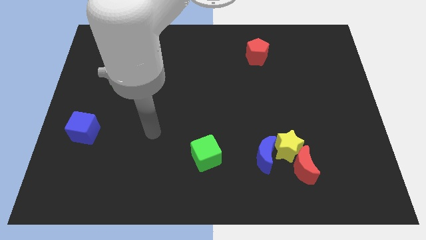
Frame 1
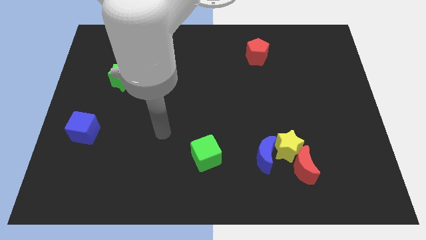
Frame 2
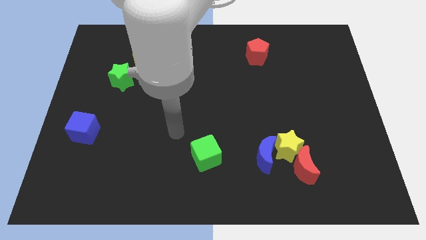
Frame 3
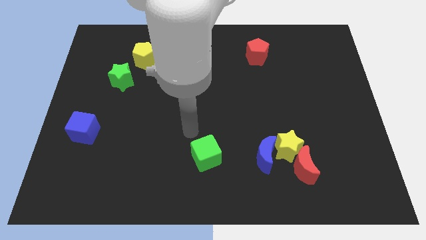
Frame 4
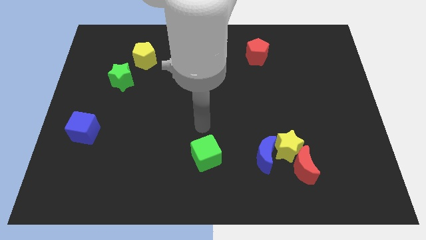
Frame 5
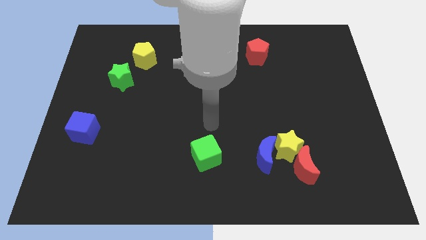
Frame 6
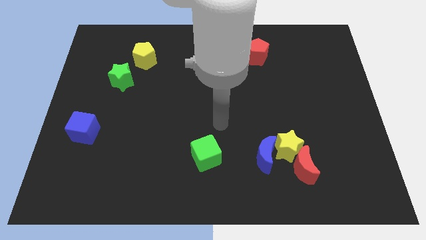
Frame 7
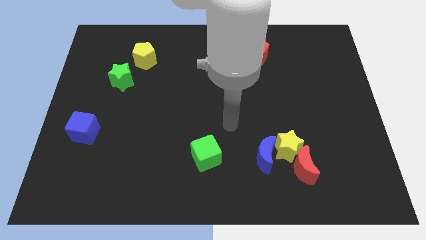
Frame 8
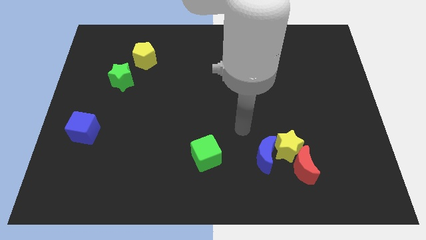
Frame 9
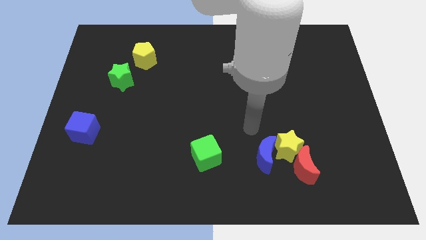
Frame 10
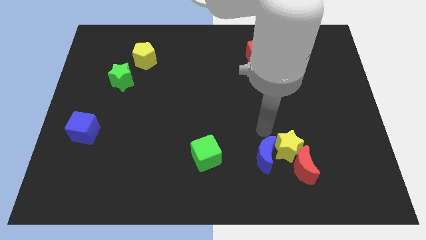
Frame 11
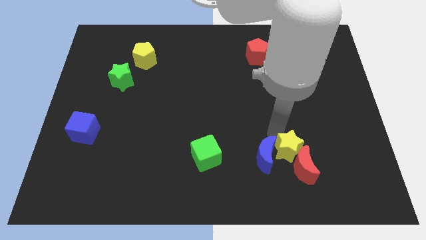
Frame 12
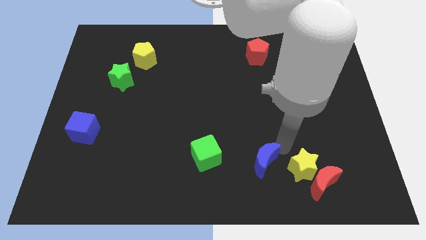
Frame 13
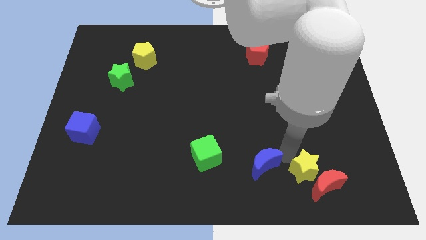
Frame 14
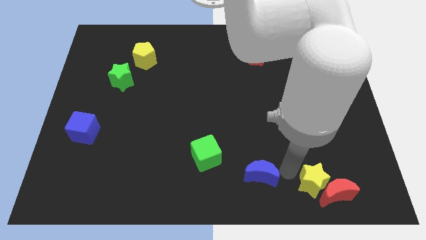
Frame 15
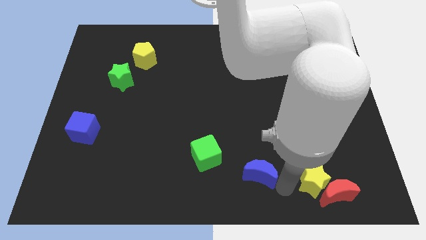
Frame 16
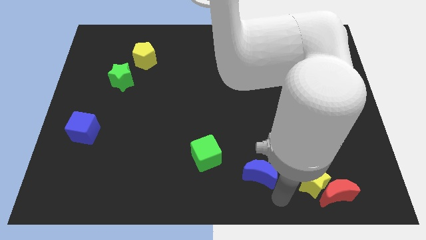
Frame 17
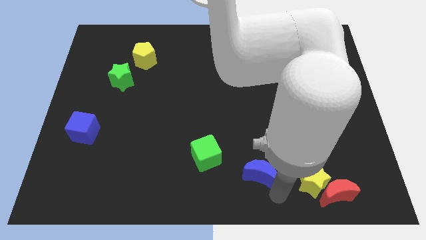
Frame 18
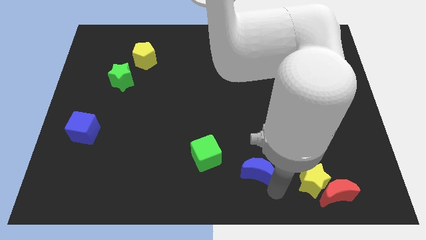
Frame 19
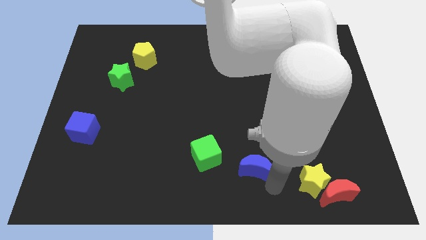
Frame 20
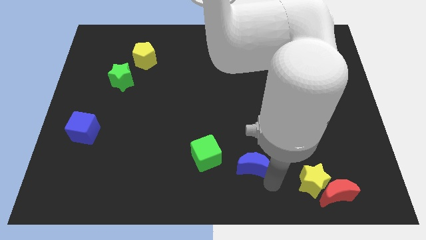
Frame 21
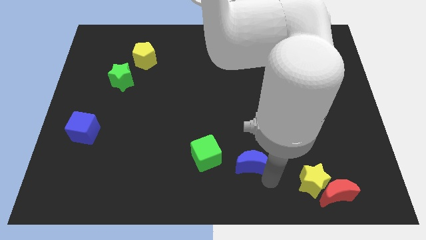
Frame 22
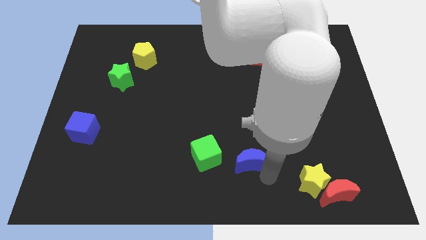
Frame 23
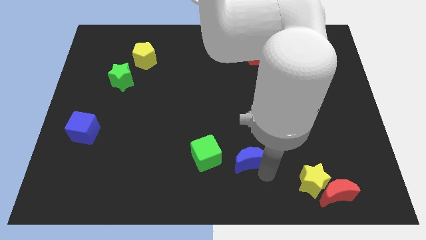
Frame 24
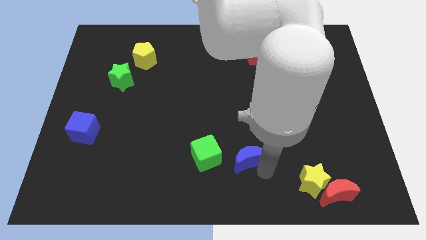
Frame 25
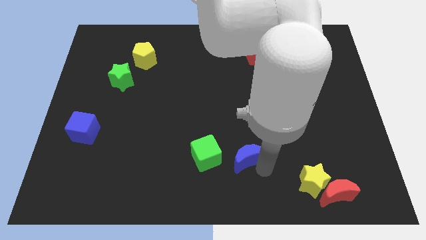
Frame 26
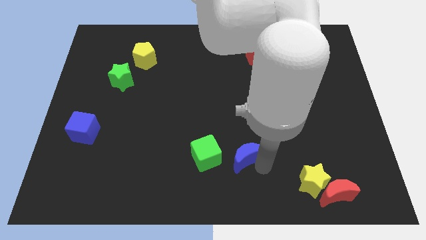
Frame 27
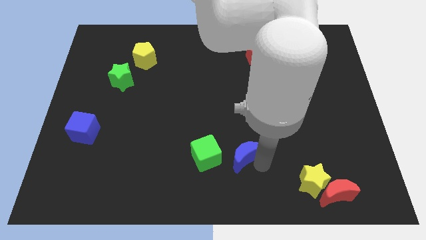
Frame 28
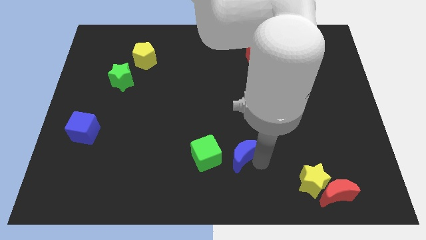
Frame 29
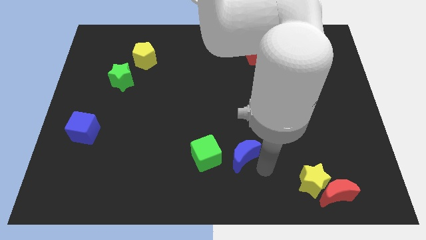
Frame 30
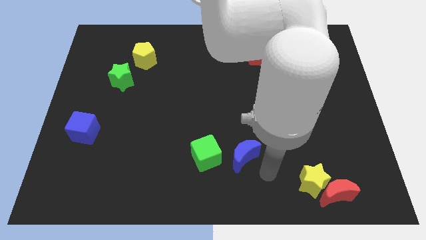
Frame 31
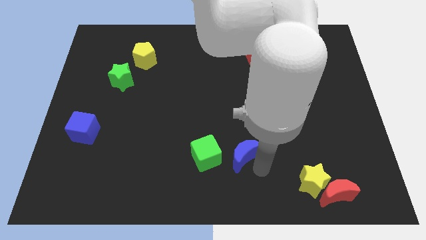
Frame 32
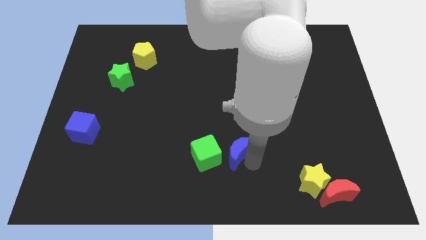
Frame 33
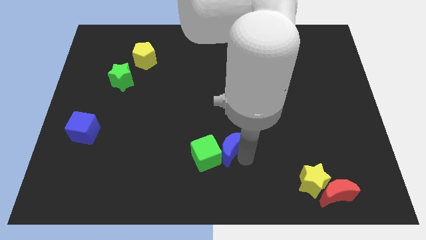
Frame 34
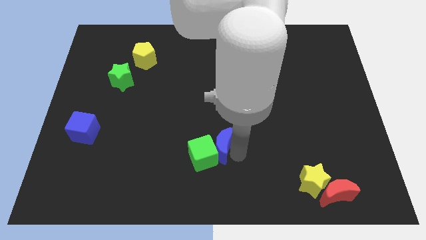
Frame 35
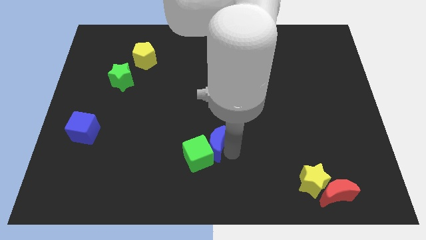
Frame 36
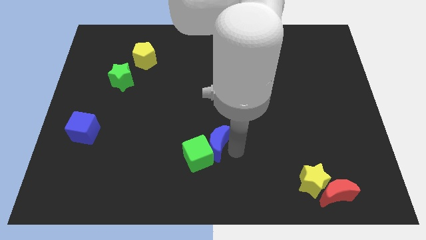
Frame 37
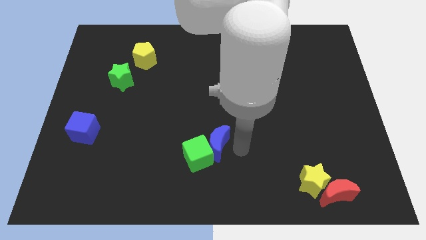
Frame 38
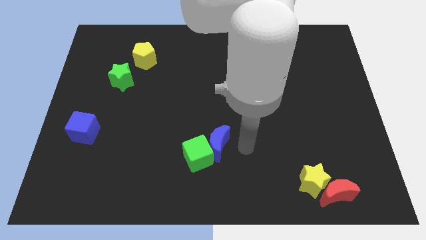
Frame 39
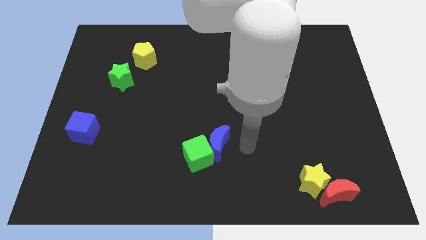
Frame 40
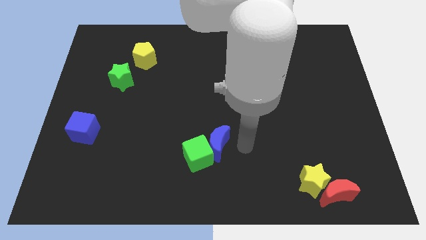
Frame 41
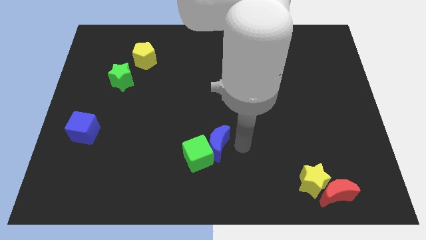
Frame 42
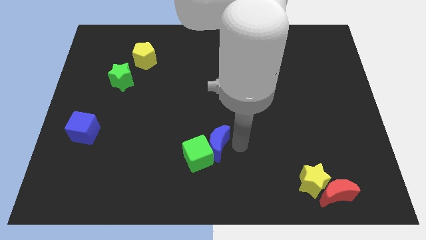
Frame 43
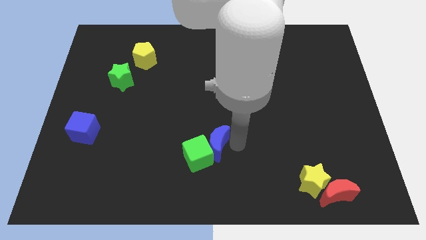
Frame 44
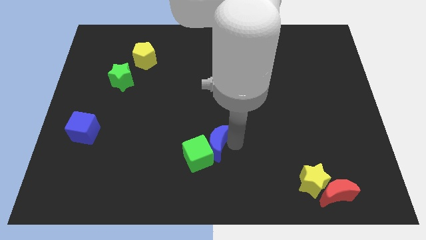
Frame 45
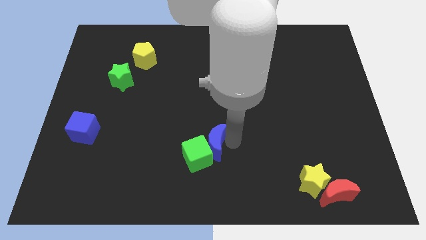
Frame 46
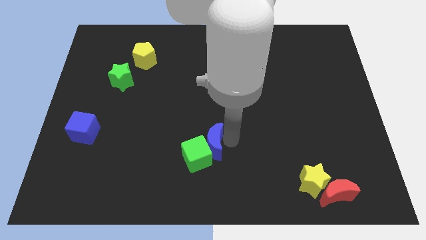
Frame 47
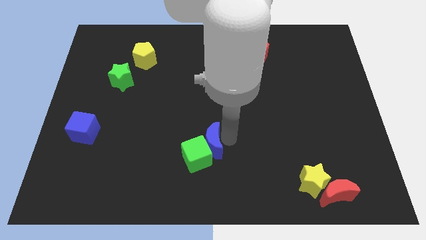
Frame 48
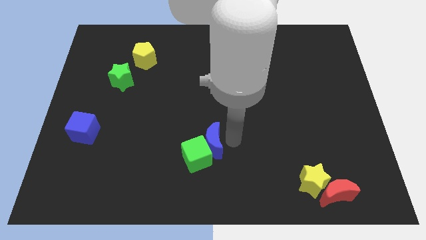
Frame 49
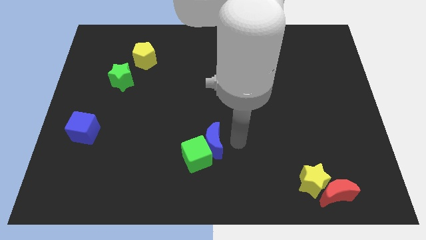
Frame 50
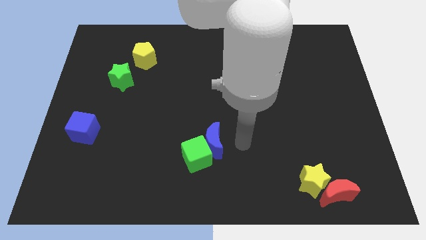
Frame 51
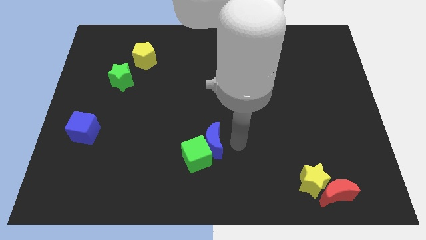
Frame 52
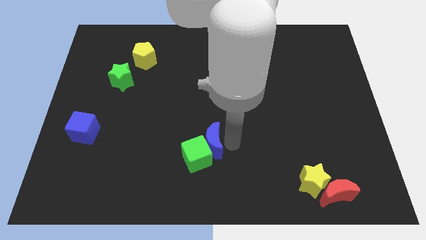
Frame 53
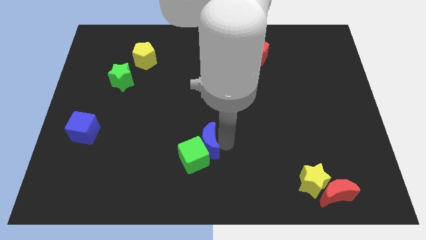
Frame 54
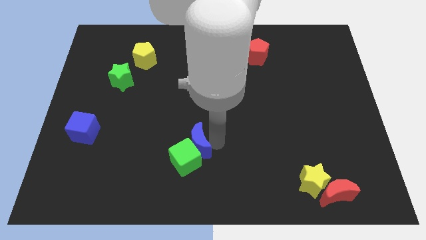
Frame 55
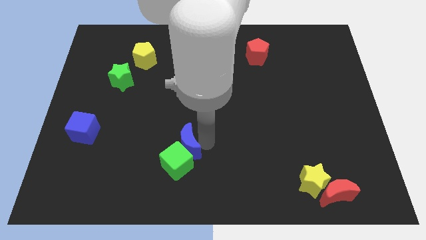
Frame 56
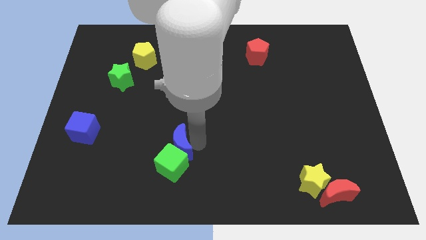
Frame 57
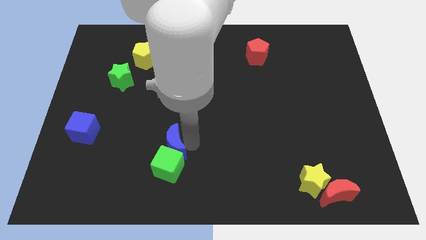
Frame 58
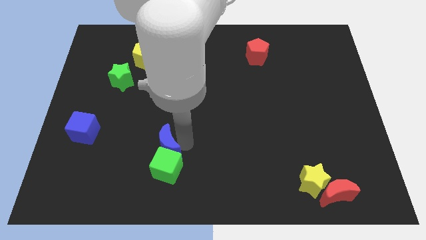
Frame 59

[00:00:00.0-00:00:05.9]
push the blue moon left

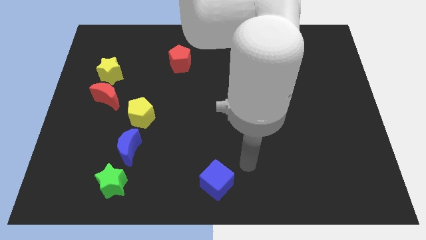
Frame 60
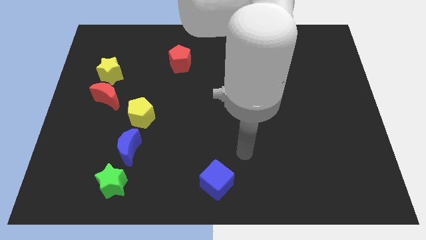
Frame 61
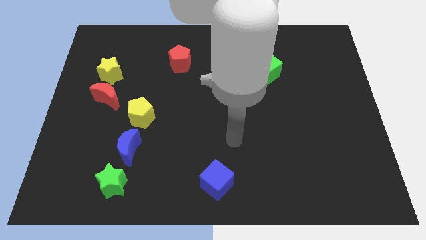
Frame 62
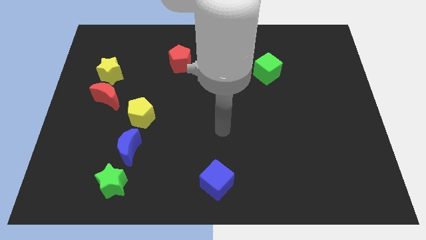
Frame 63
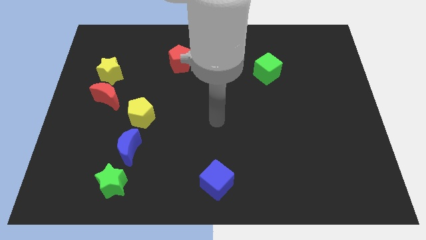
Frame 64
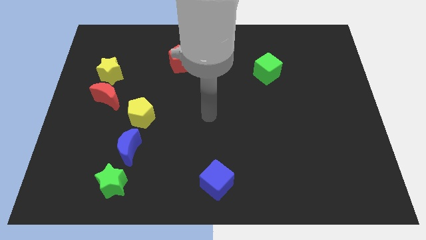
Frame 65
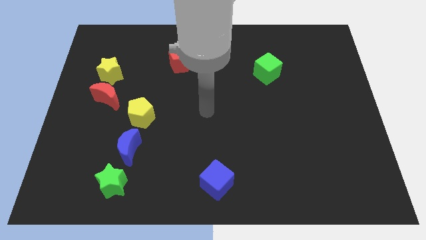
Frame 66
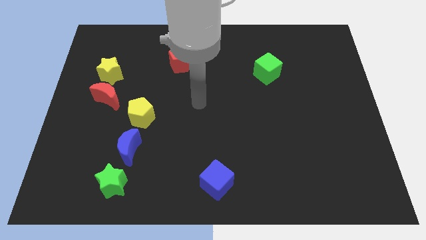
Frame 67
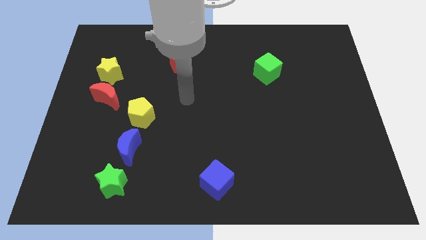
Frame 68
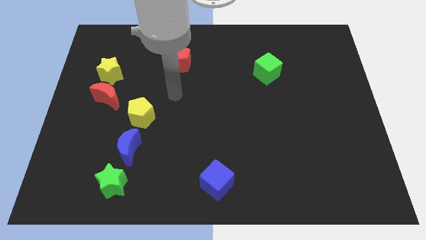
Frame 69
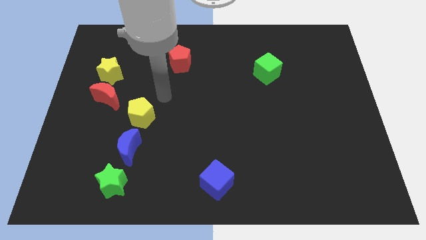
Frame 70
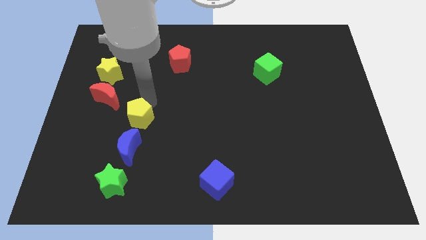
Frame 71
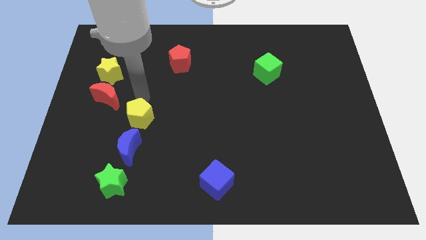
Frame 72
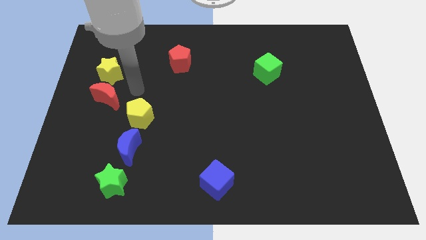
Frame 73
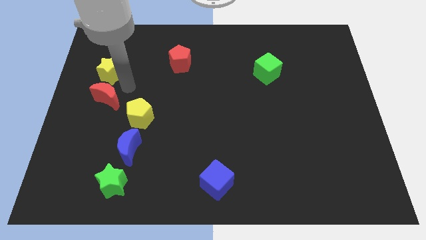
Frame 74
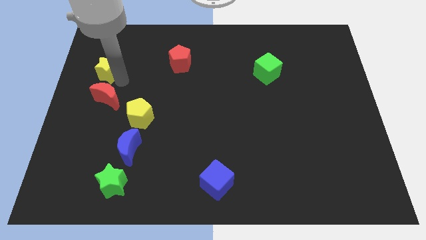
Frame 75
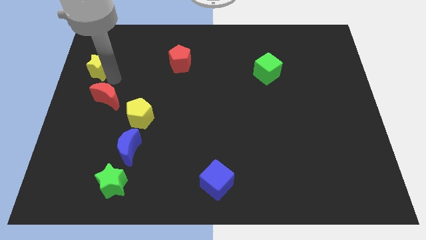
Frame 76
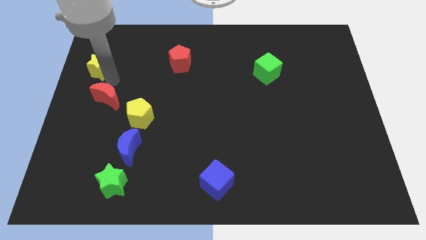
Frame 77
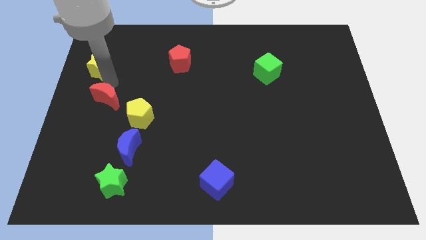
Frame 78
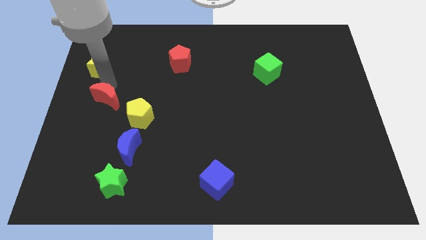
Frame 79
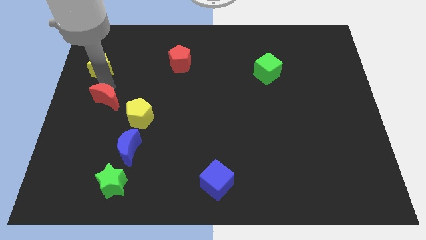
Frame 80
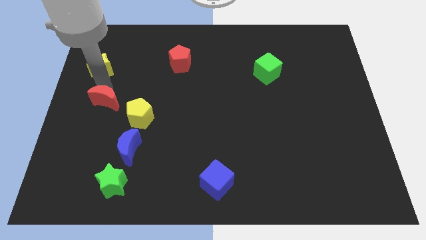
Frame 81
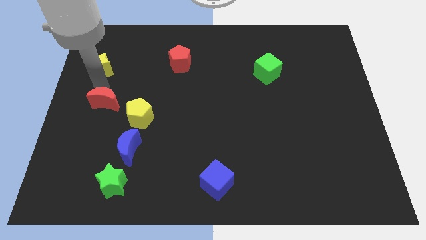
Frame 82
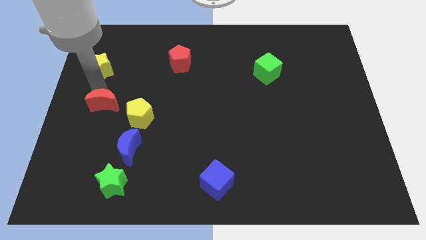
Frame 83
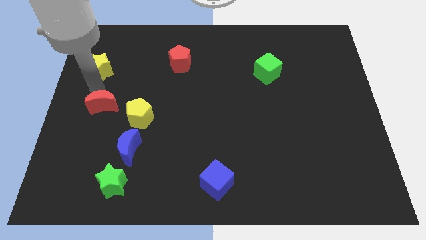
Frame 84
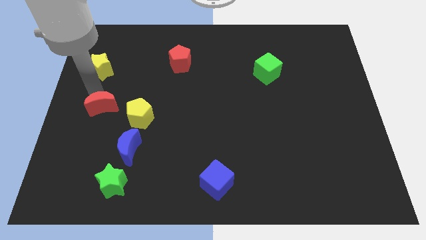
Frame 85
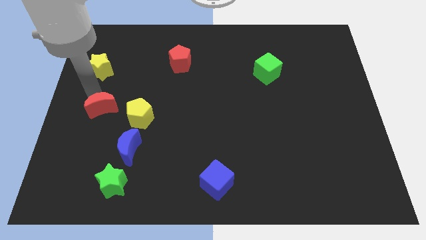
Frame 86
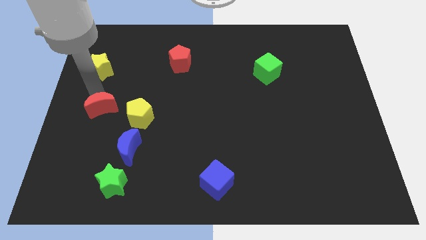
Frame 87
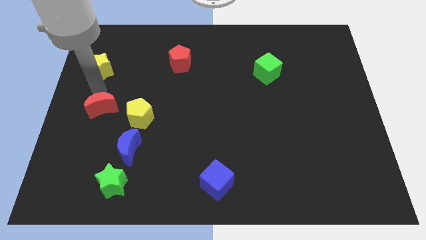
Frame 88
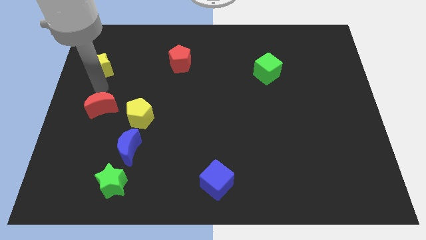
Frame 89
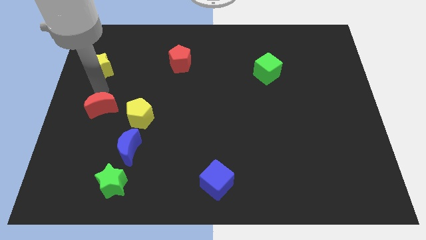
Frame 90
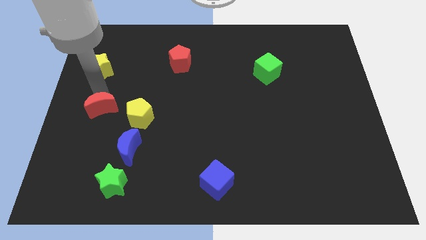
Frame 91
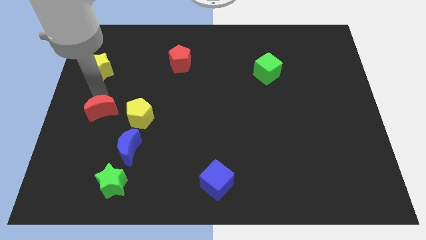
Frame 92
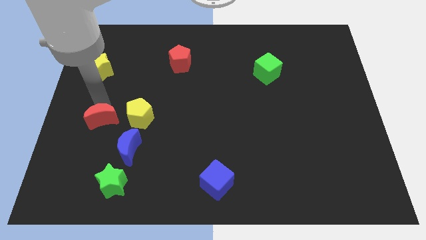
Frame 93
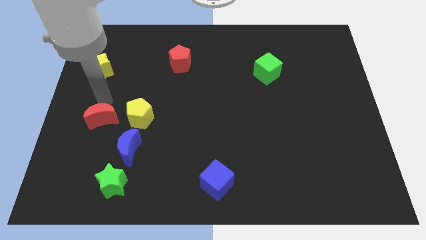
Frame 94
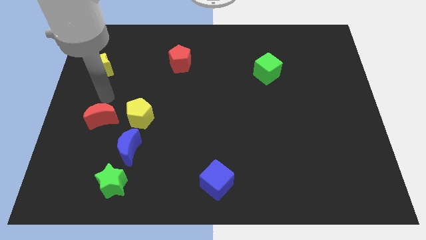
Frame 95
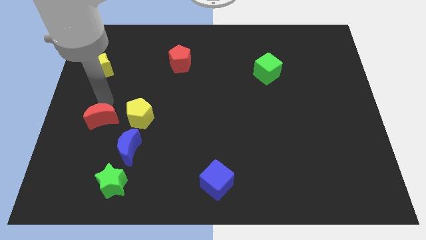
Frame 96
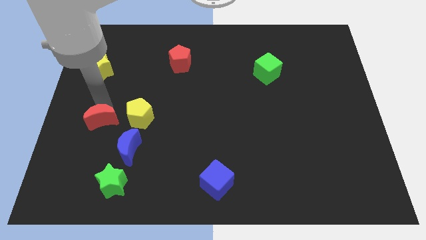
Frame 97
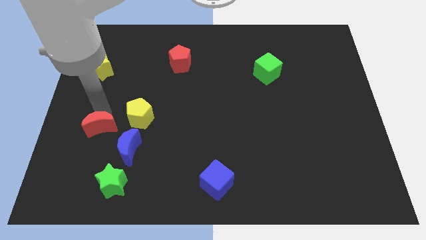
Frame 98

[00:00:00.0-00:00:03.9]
slightly push the red moon down
